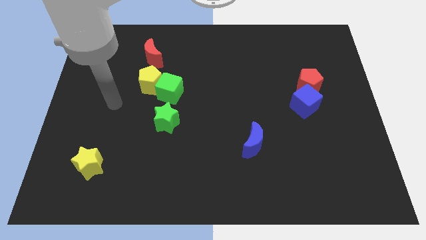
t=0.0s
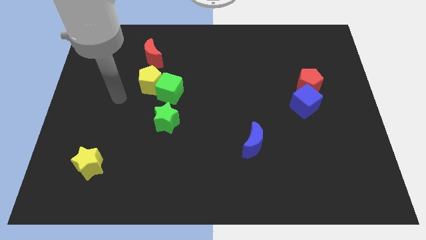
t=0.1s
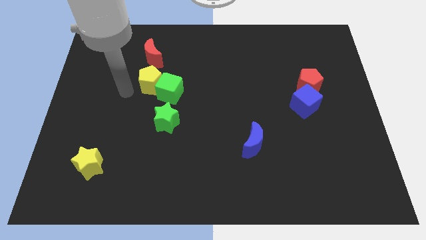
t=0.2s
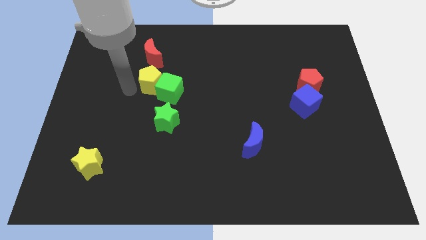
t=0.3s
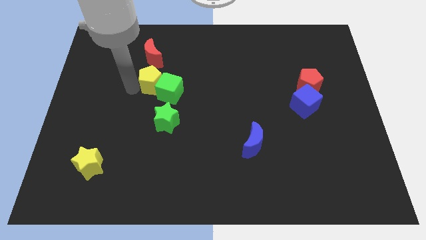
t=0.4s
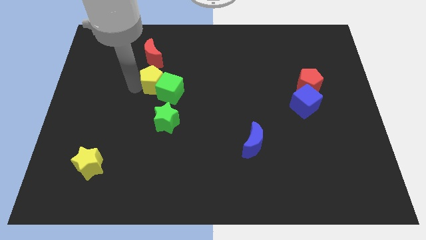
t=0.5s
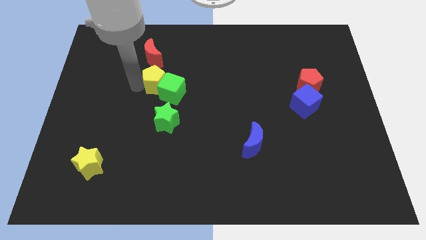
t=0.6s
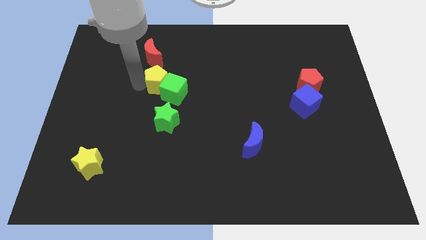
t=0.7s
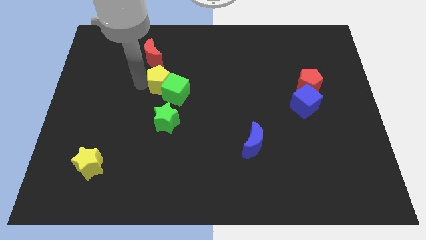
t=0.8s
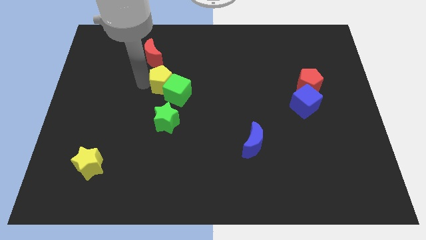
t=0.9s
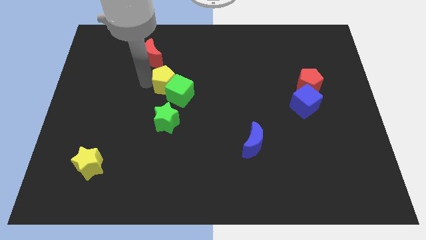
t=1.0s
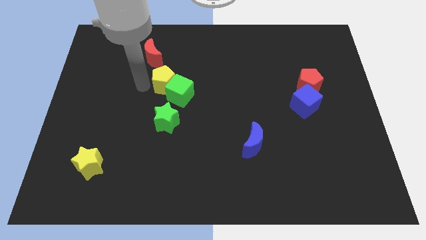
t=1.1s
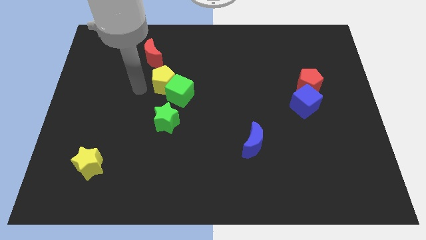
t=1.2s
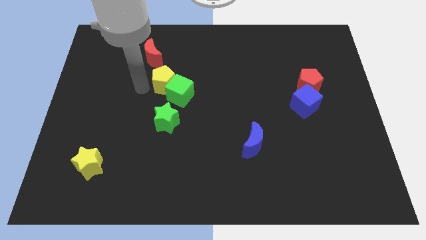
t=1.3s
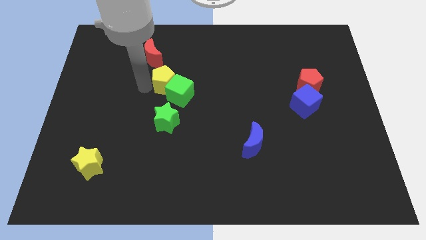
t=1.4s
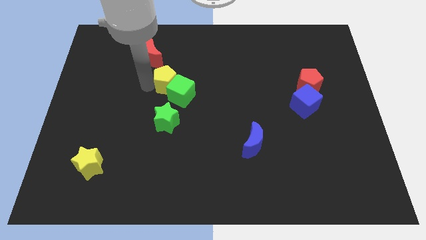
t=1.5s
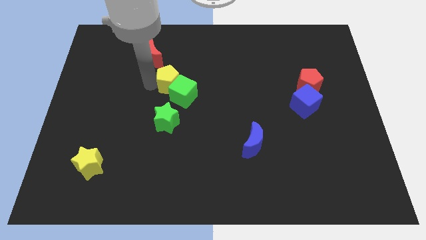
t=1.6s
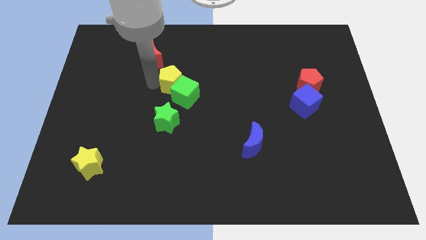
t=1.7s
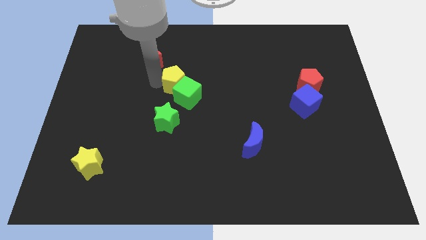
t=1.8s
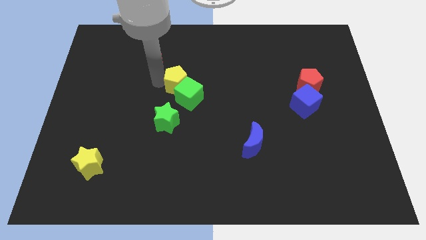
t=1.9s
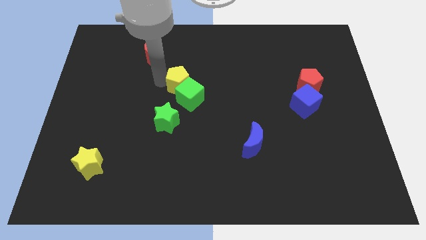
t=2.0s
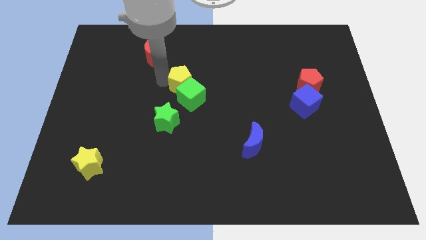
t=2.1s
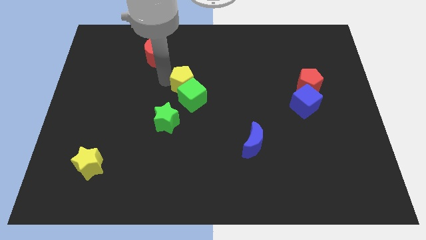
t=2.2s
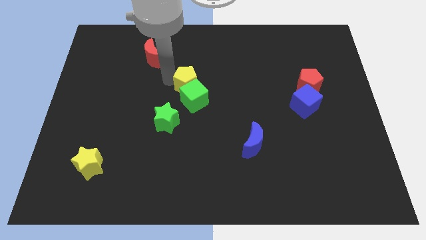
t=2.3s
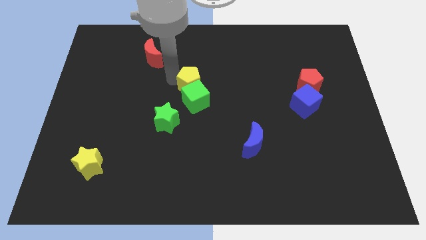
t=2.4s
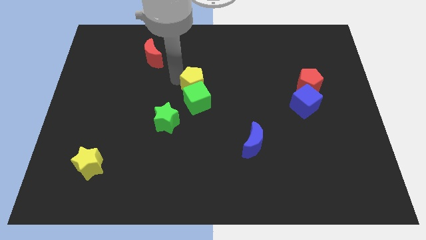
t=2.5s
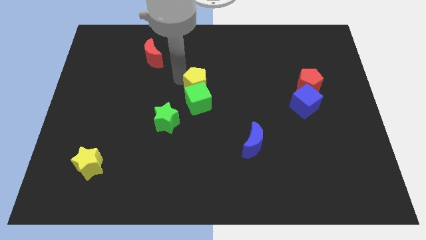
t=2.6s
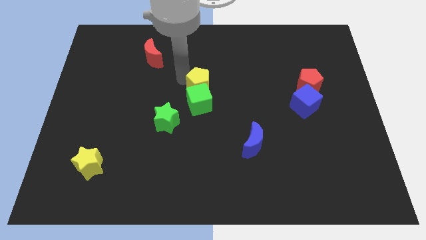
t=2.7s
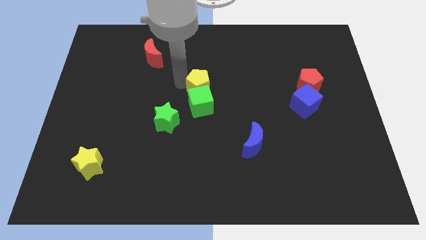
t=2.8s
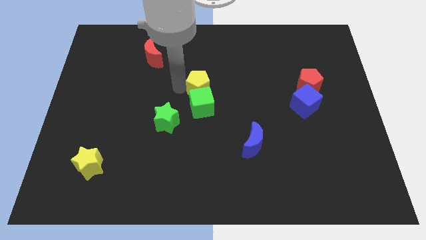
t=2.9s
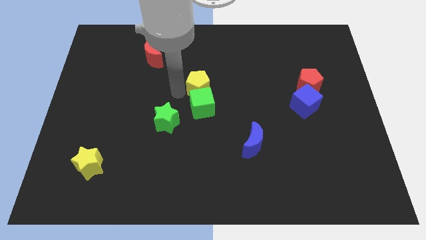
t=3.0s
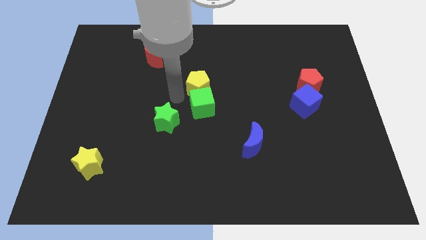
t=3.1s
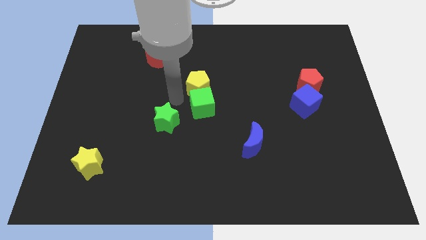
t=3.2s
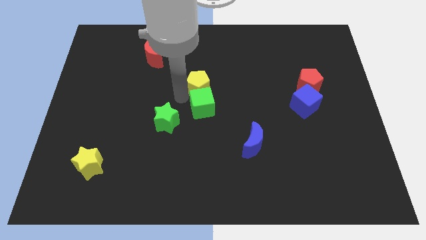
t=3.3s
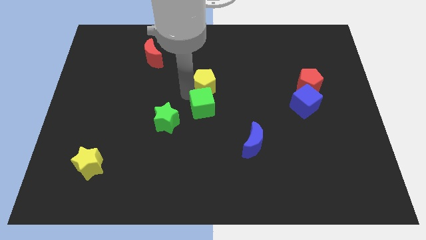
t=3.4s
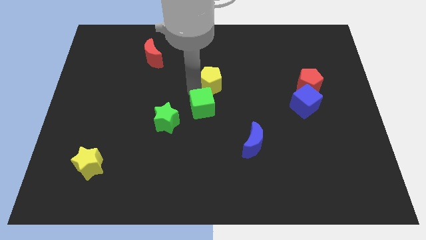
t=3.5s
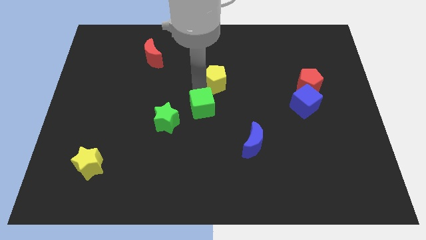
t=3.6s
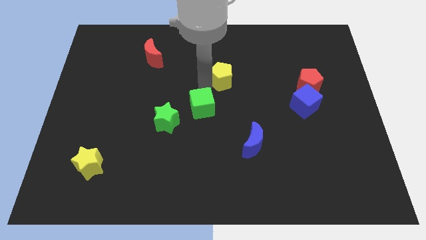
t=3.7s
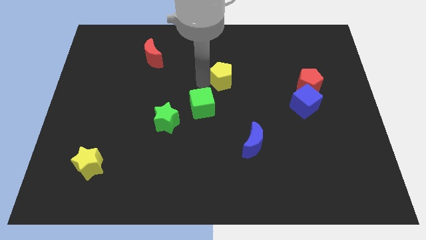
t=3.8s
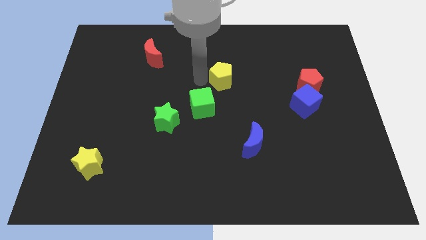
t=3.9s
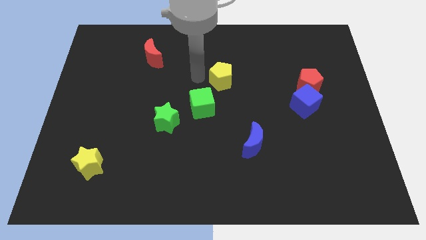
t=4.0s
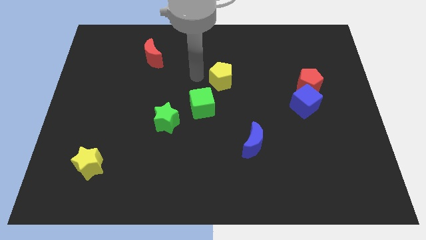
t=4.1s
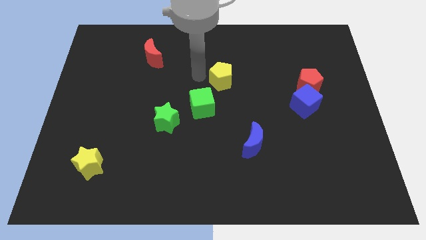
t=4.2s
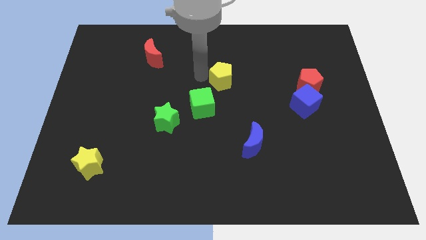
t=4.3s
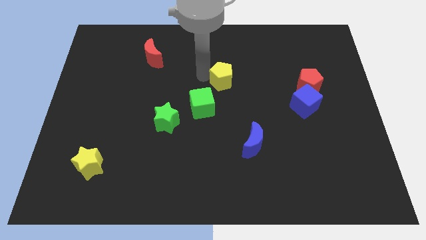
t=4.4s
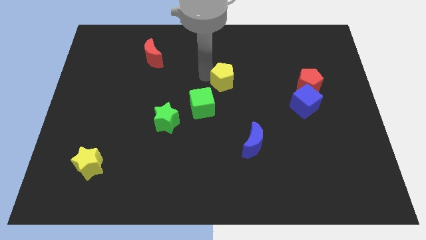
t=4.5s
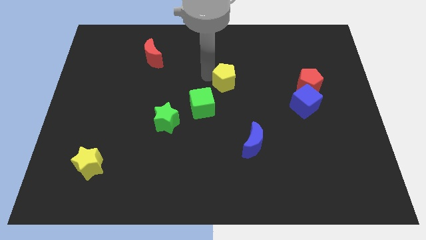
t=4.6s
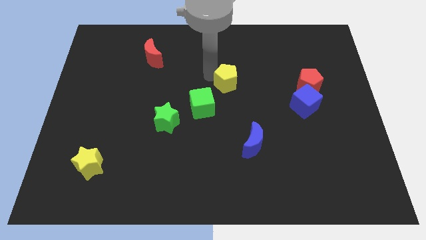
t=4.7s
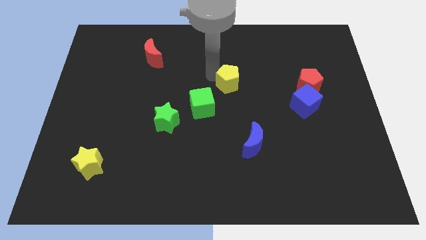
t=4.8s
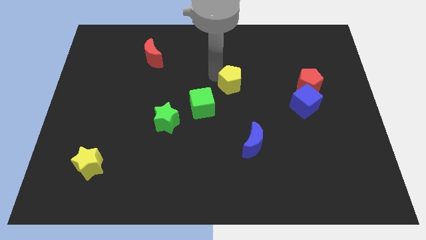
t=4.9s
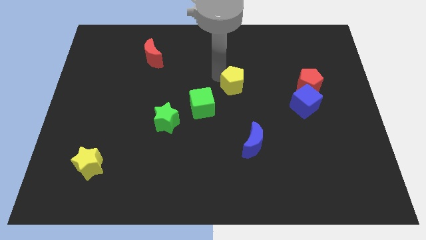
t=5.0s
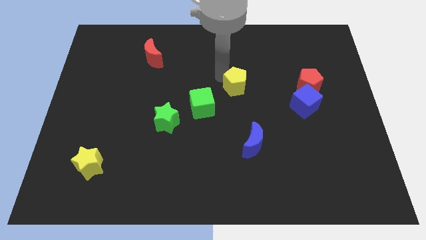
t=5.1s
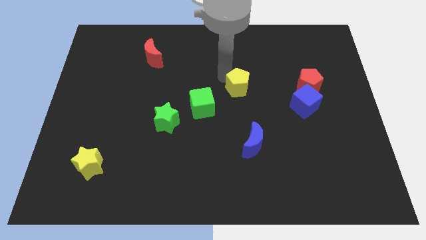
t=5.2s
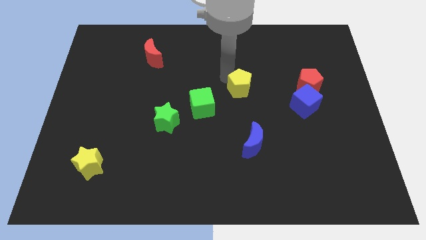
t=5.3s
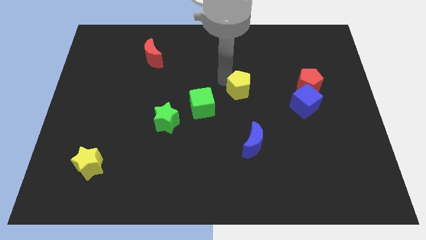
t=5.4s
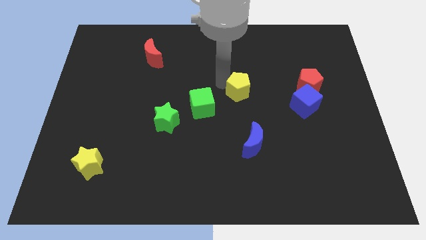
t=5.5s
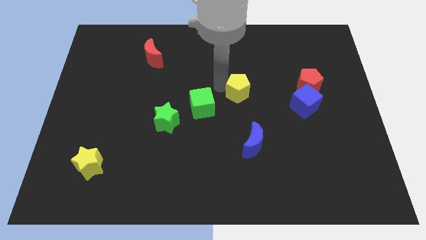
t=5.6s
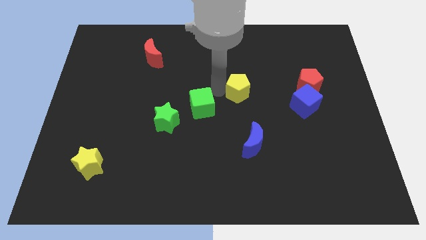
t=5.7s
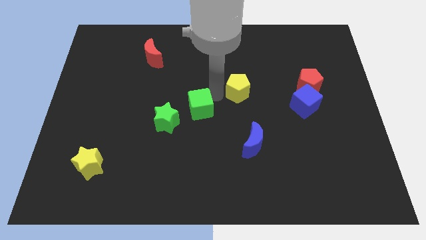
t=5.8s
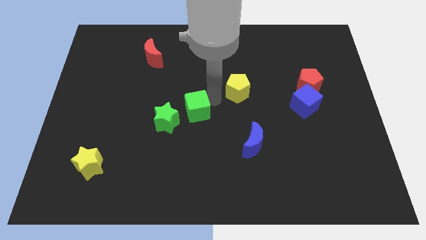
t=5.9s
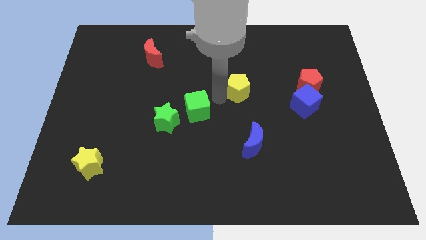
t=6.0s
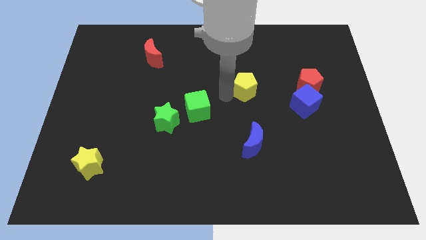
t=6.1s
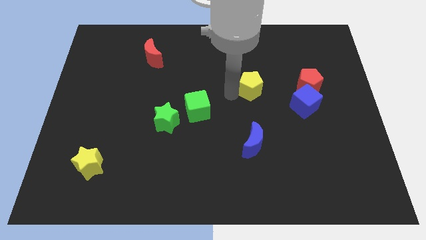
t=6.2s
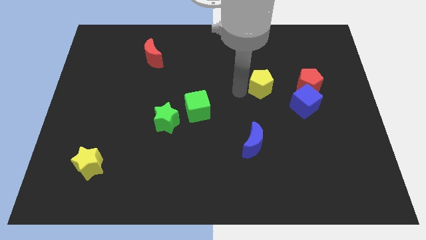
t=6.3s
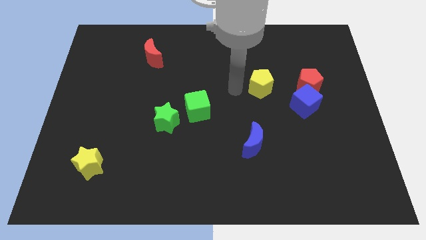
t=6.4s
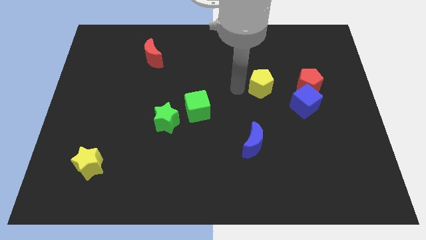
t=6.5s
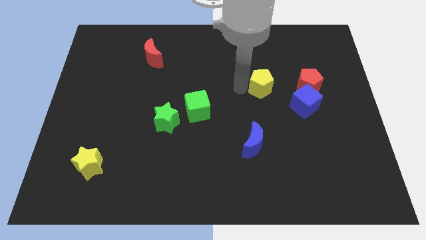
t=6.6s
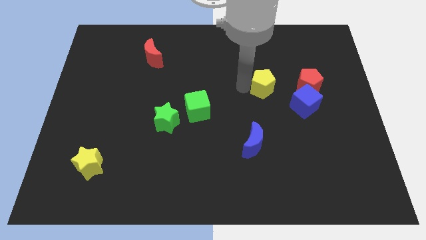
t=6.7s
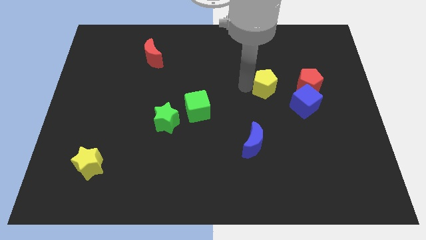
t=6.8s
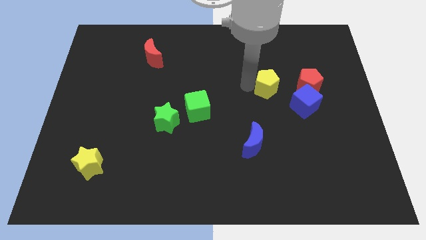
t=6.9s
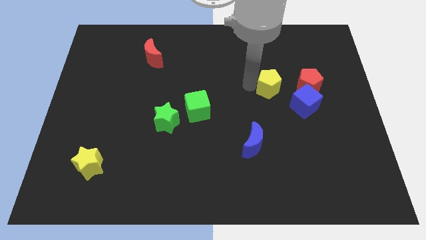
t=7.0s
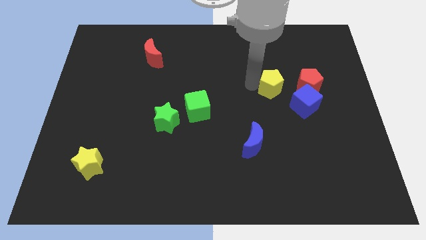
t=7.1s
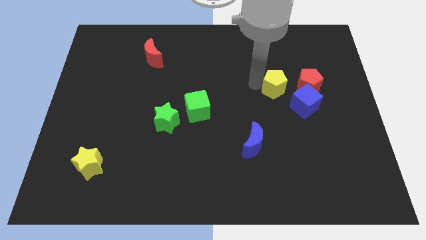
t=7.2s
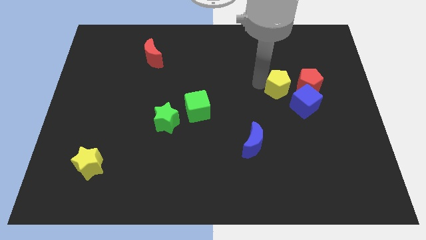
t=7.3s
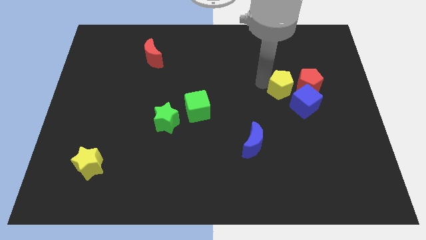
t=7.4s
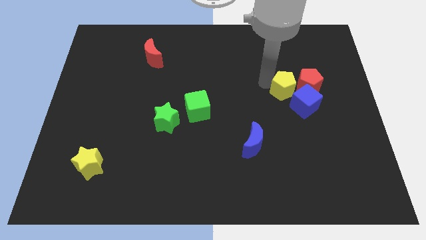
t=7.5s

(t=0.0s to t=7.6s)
move the yellow pentagon towards the red pentagon

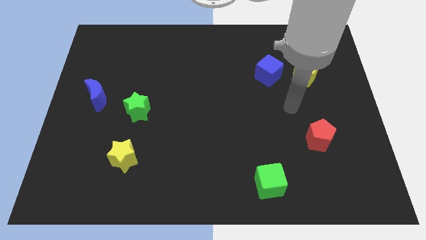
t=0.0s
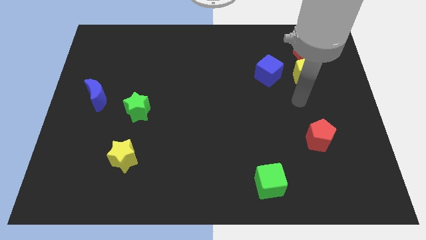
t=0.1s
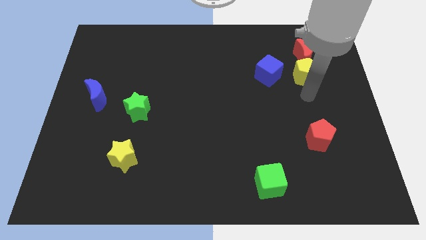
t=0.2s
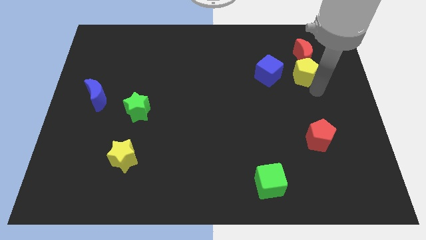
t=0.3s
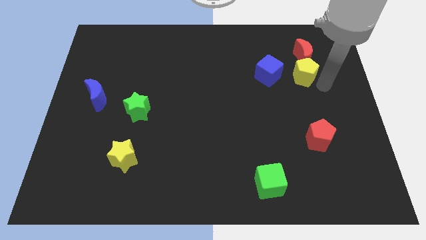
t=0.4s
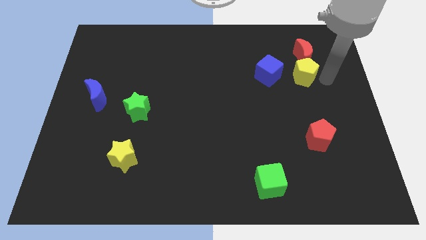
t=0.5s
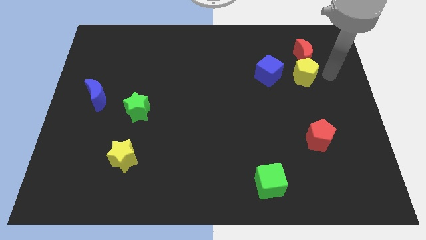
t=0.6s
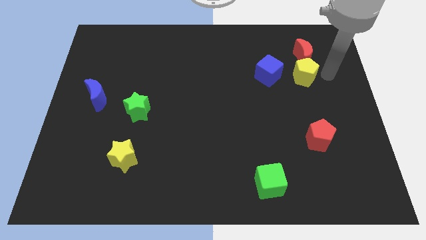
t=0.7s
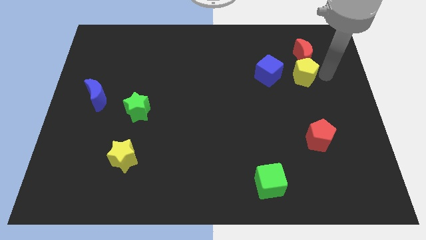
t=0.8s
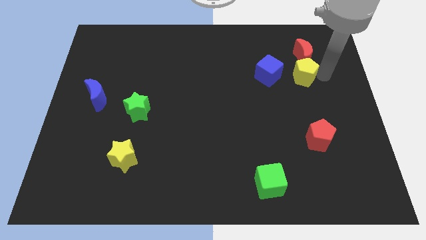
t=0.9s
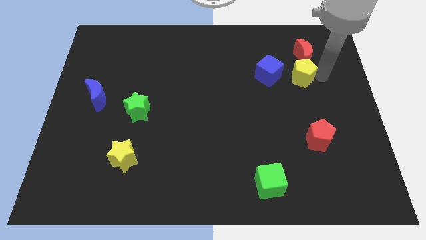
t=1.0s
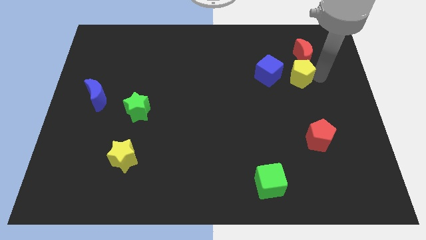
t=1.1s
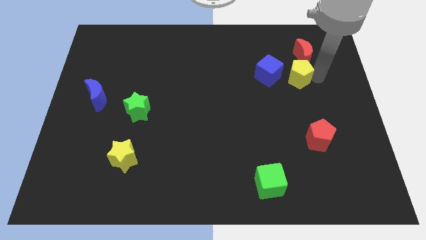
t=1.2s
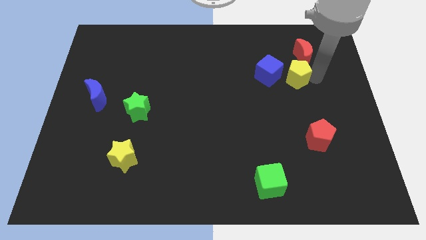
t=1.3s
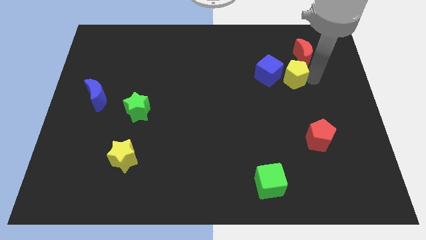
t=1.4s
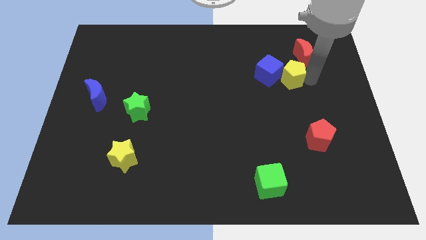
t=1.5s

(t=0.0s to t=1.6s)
slide the yellow pentagon to the blue cube
